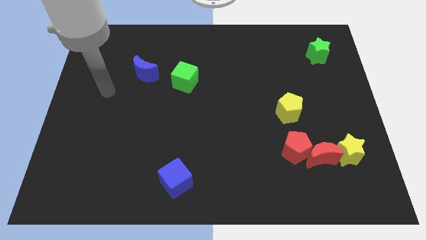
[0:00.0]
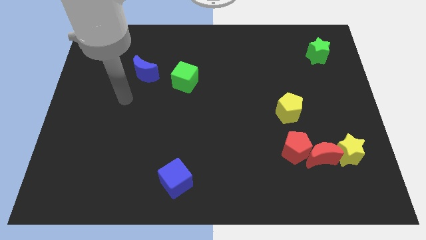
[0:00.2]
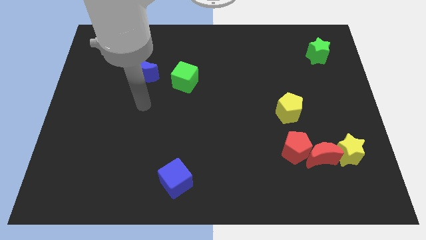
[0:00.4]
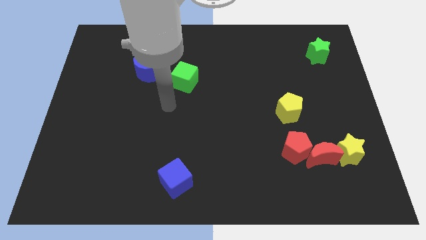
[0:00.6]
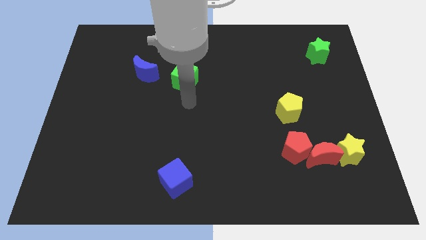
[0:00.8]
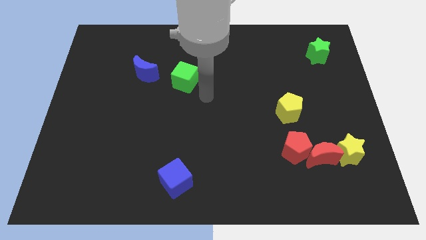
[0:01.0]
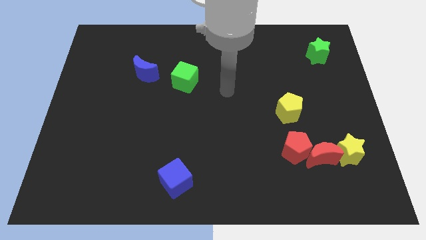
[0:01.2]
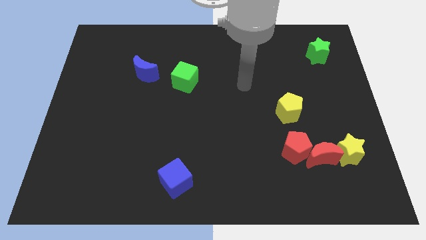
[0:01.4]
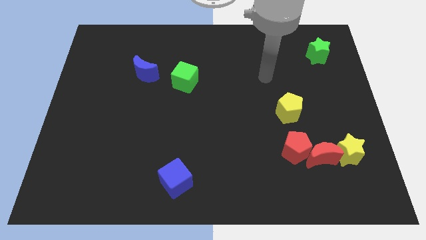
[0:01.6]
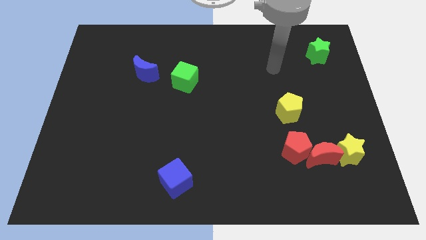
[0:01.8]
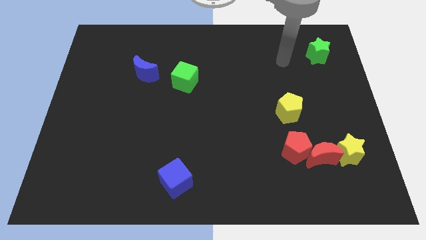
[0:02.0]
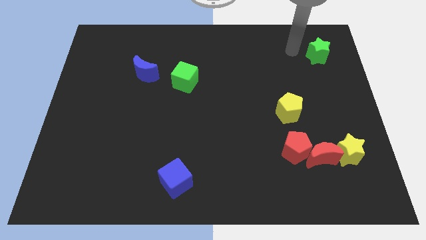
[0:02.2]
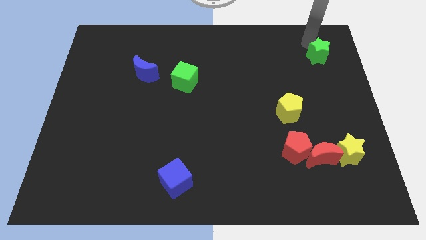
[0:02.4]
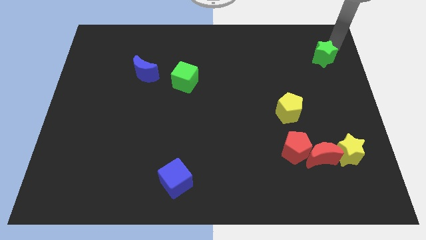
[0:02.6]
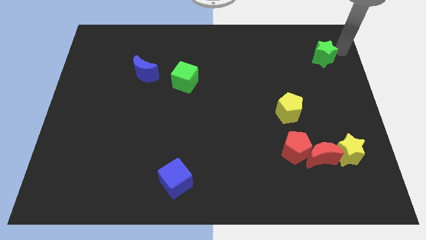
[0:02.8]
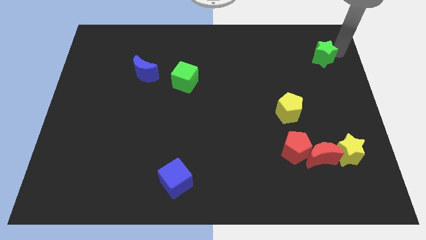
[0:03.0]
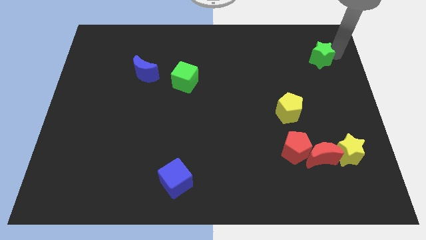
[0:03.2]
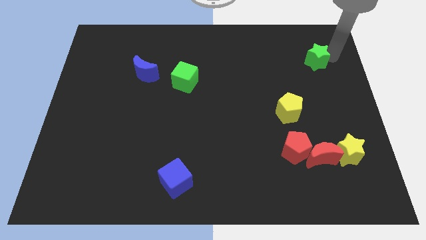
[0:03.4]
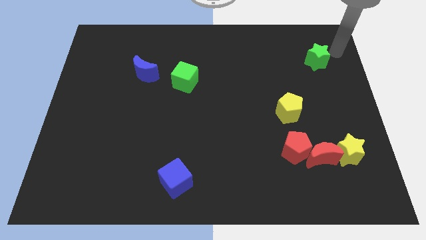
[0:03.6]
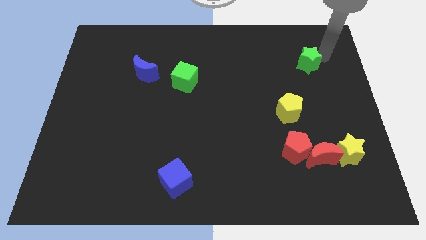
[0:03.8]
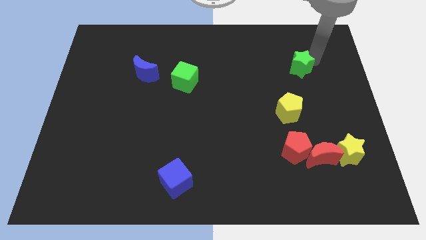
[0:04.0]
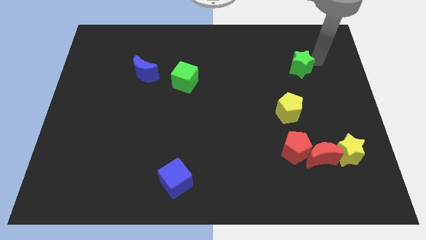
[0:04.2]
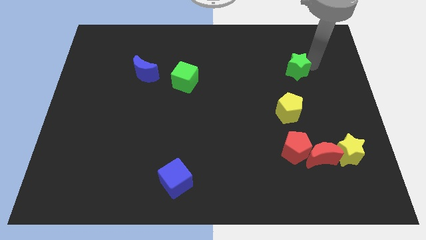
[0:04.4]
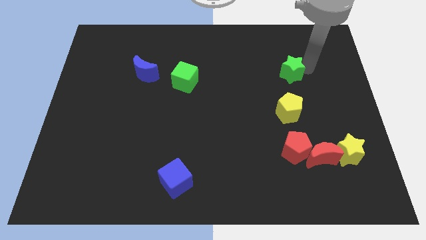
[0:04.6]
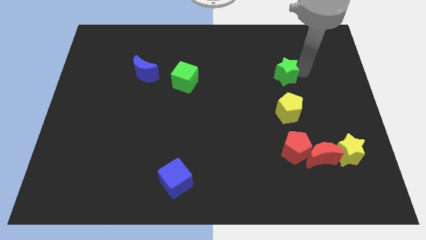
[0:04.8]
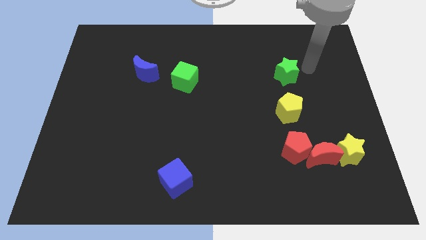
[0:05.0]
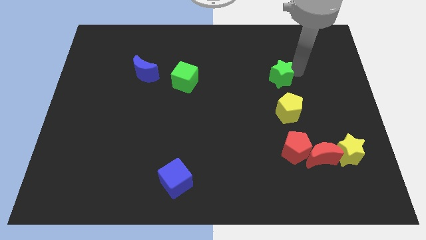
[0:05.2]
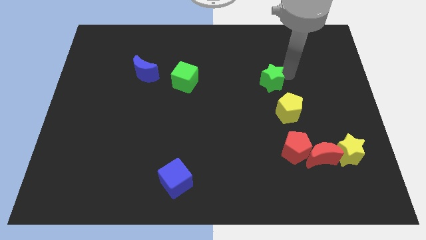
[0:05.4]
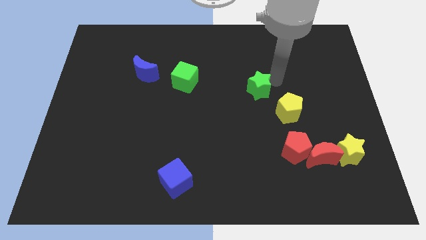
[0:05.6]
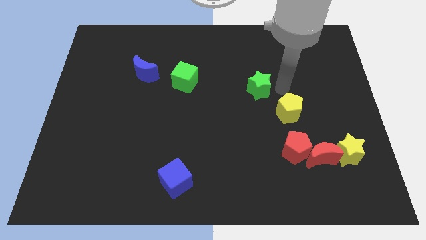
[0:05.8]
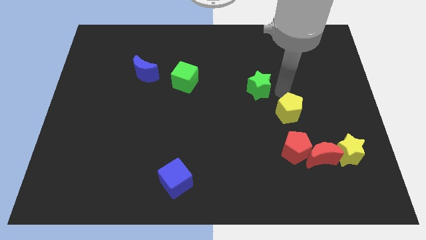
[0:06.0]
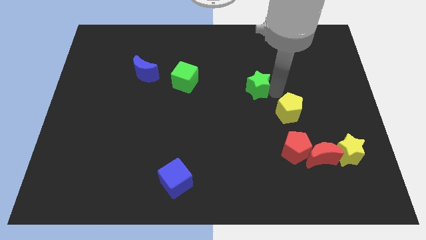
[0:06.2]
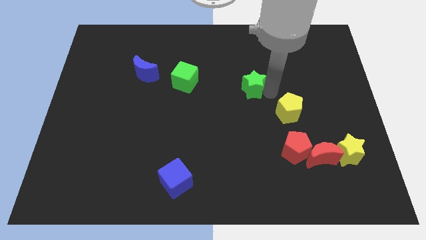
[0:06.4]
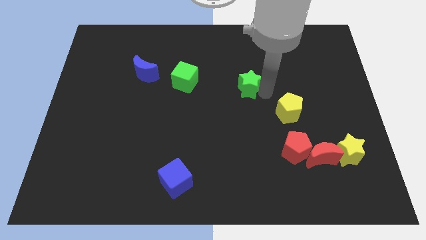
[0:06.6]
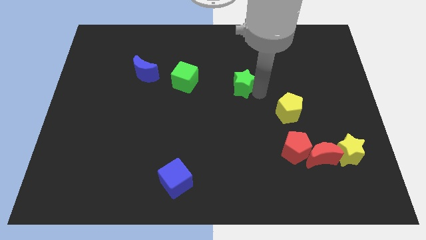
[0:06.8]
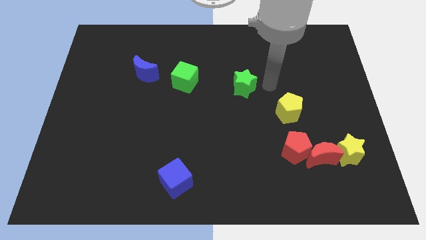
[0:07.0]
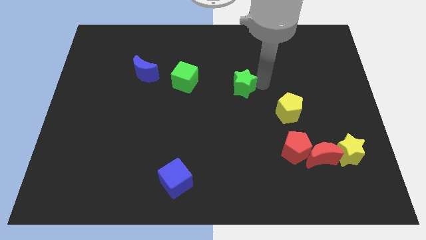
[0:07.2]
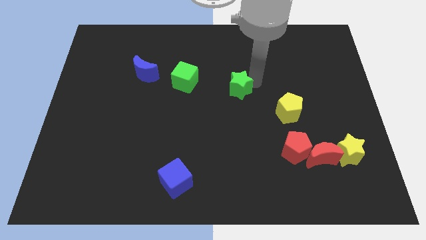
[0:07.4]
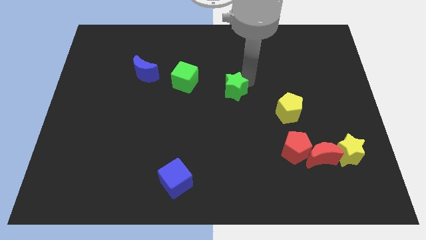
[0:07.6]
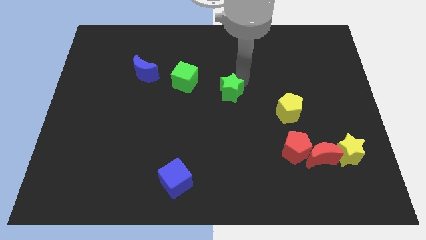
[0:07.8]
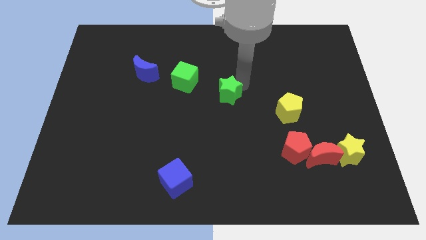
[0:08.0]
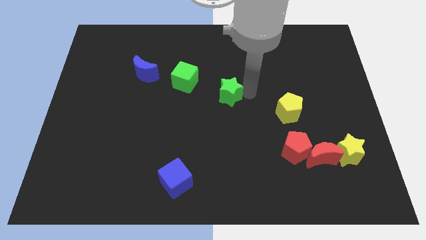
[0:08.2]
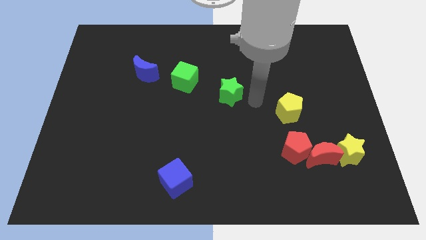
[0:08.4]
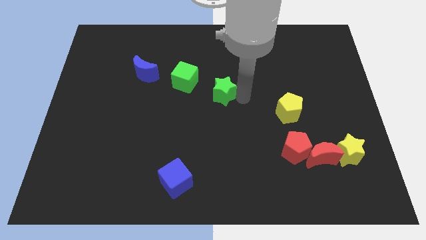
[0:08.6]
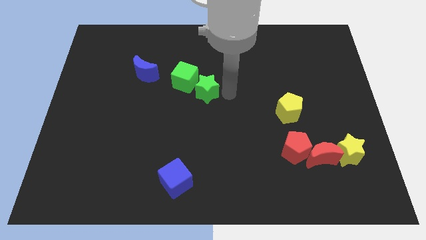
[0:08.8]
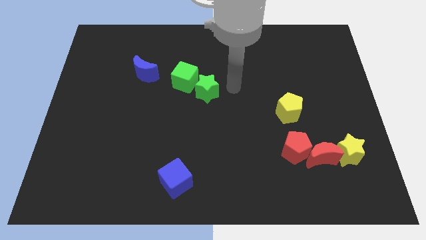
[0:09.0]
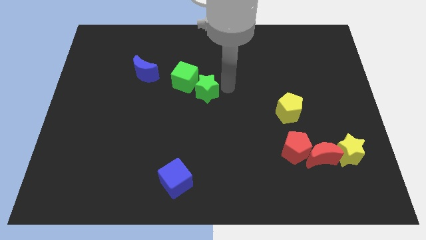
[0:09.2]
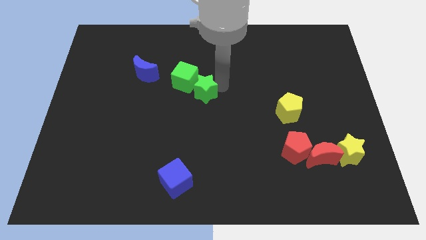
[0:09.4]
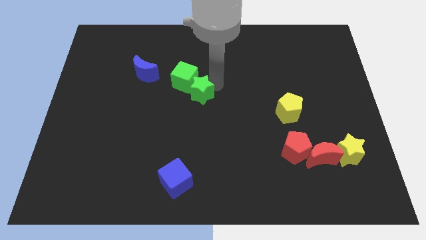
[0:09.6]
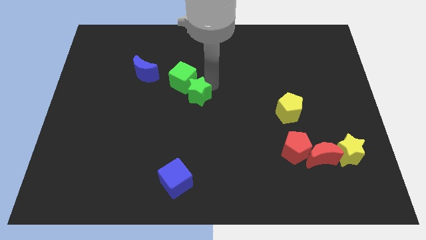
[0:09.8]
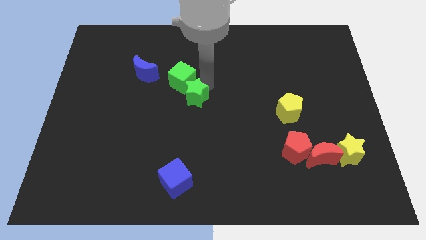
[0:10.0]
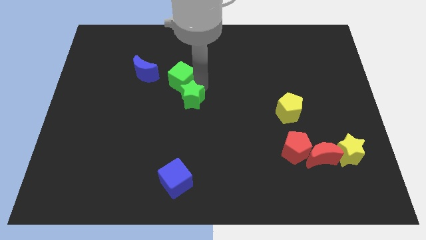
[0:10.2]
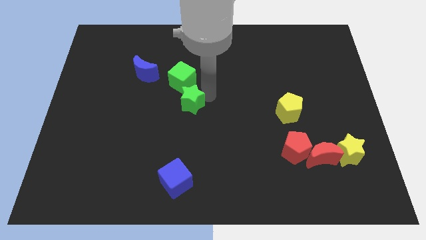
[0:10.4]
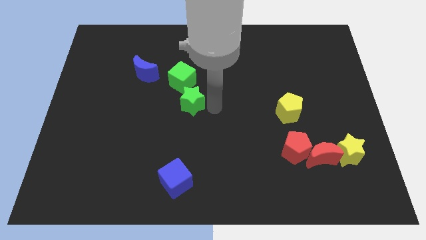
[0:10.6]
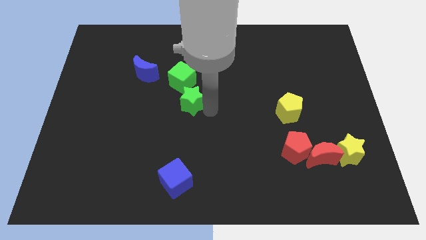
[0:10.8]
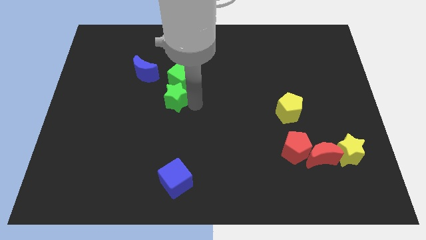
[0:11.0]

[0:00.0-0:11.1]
put the green star to the bottom right side of the blue moon

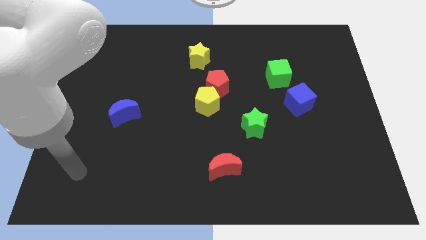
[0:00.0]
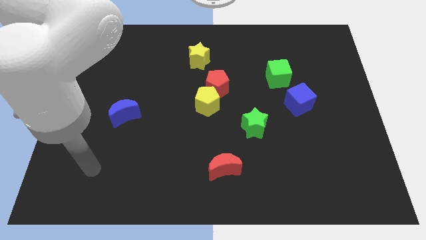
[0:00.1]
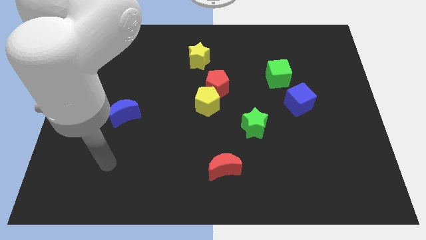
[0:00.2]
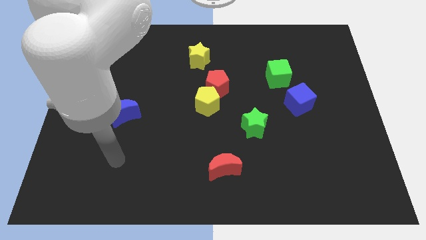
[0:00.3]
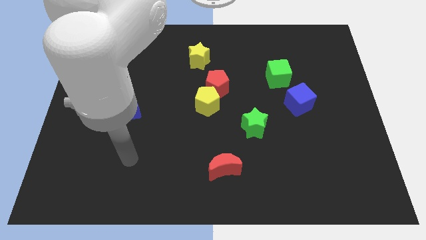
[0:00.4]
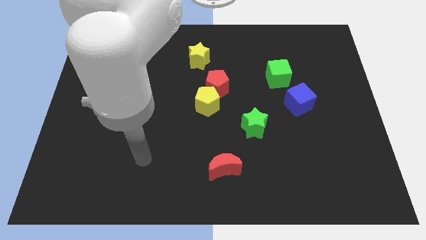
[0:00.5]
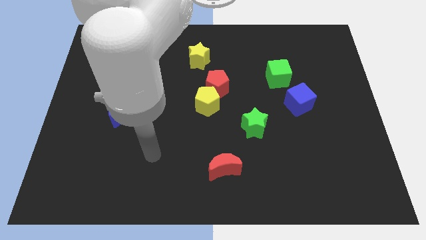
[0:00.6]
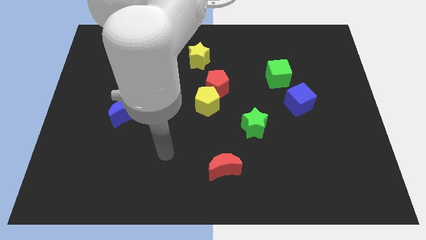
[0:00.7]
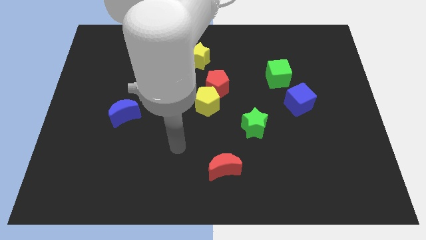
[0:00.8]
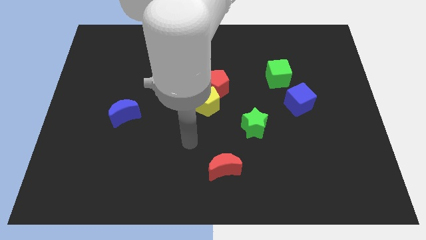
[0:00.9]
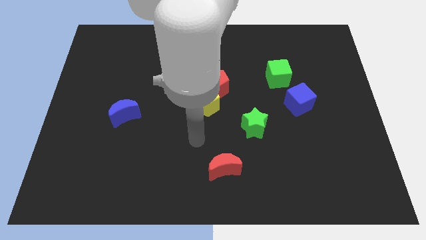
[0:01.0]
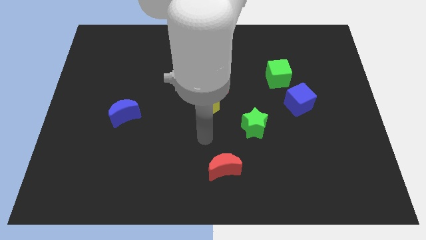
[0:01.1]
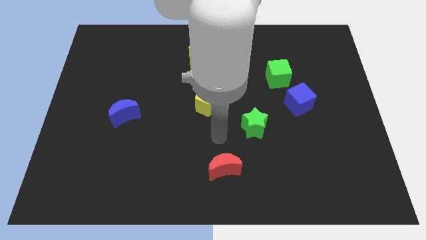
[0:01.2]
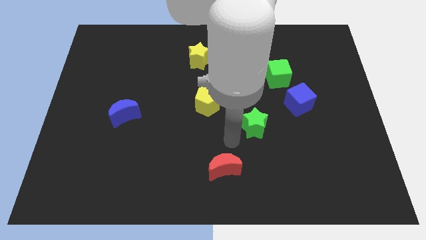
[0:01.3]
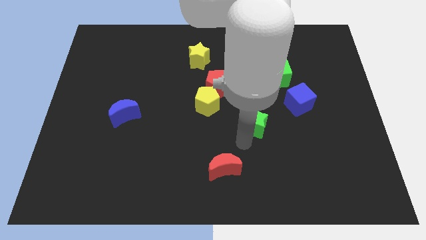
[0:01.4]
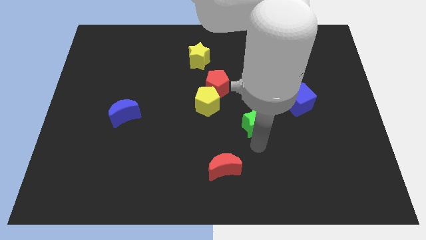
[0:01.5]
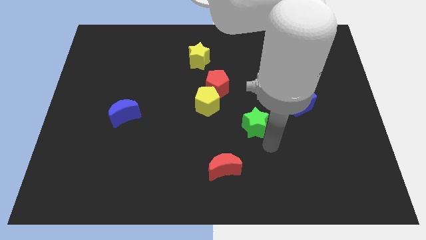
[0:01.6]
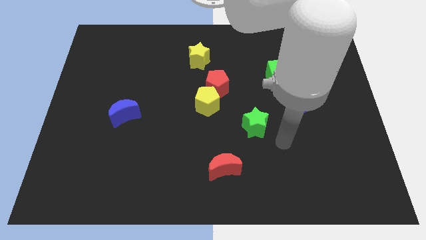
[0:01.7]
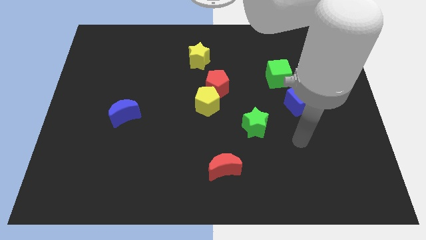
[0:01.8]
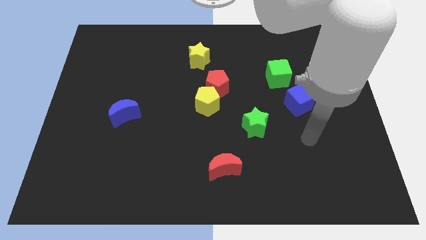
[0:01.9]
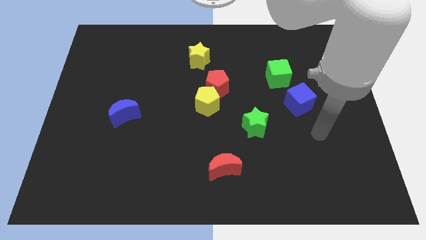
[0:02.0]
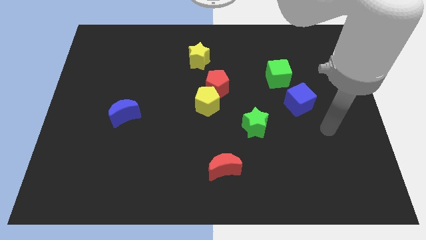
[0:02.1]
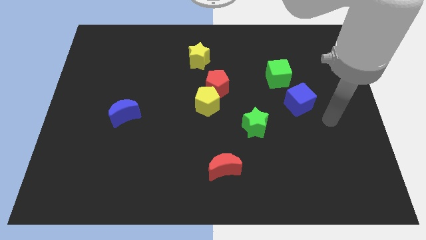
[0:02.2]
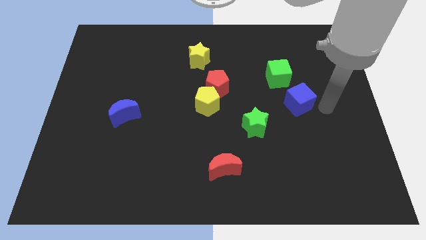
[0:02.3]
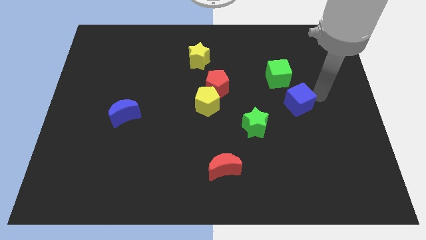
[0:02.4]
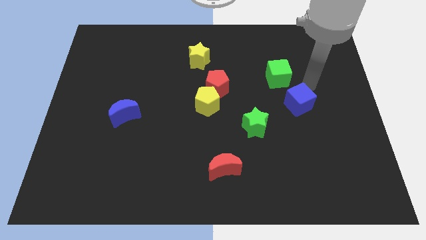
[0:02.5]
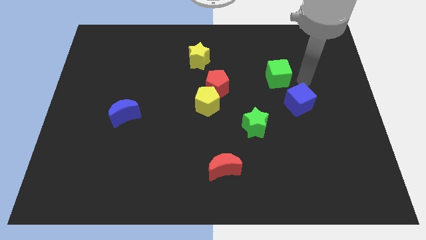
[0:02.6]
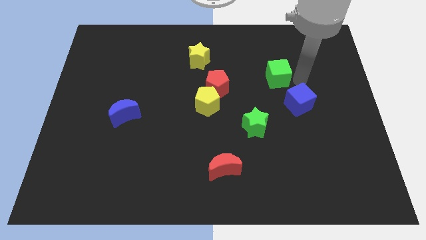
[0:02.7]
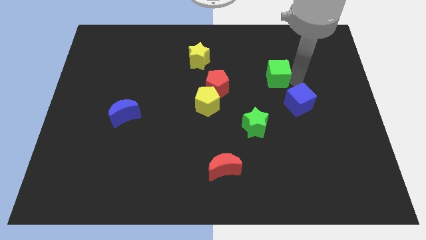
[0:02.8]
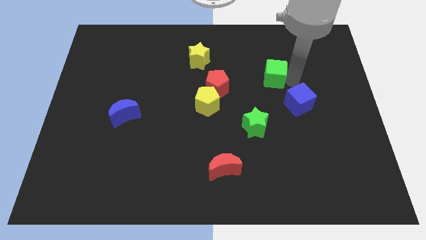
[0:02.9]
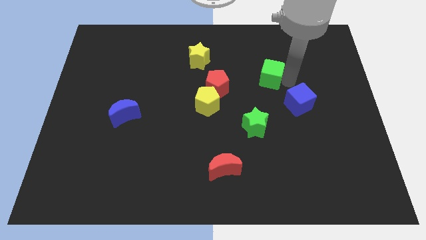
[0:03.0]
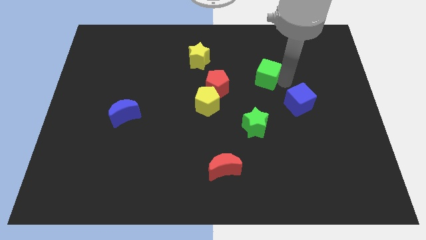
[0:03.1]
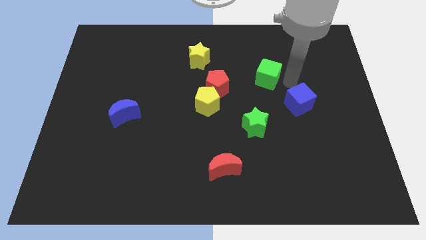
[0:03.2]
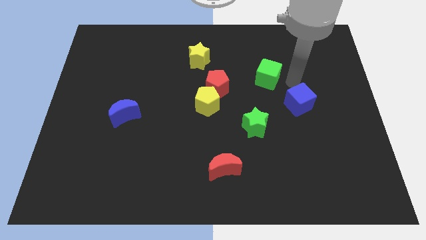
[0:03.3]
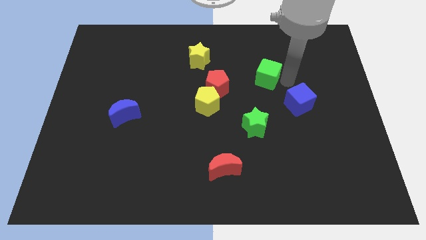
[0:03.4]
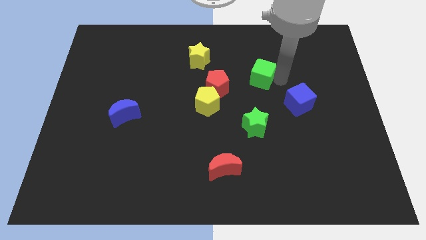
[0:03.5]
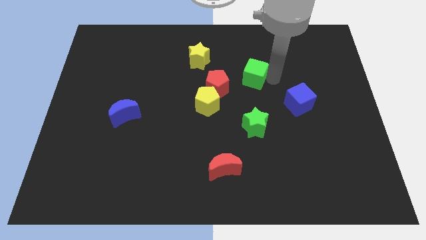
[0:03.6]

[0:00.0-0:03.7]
slide the green cube diagonally up and to the right of the red pentagon
